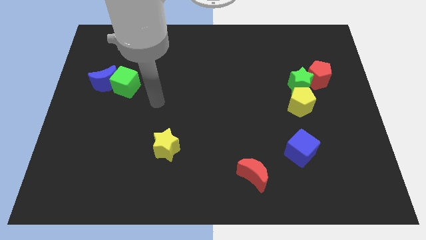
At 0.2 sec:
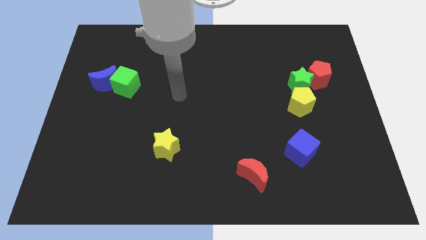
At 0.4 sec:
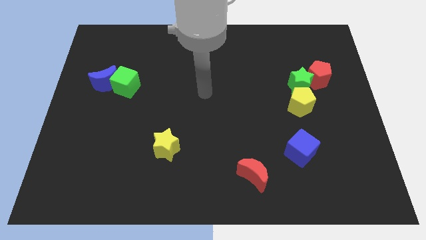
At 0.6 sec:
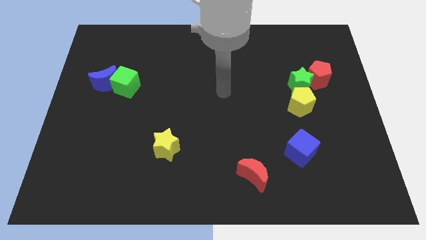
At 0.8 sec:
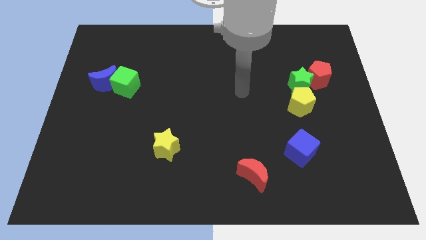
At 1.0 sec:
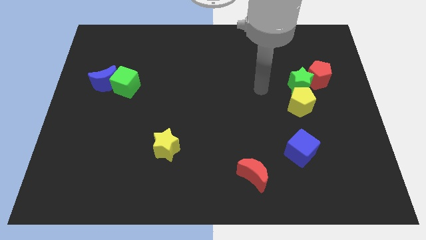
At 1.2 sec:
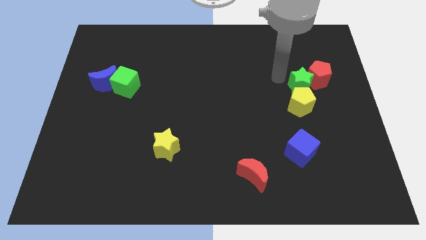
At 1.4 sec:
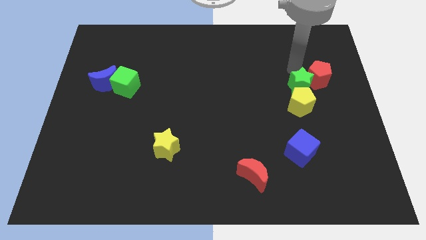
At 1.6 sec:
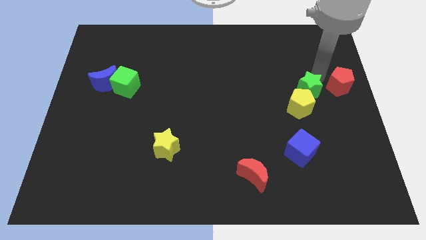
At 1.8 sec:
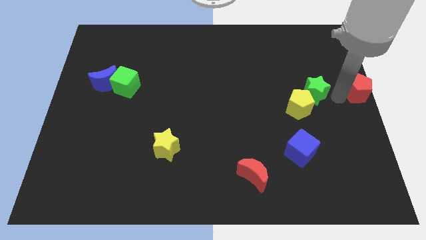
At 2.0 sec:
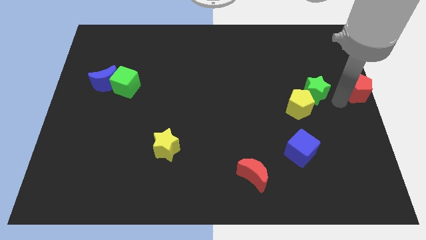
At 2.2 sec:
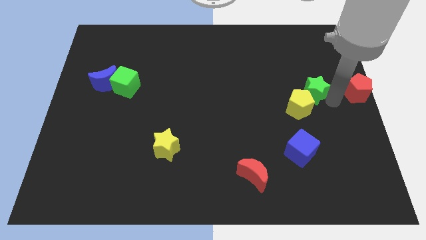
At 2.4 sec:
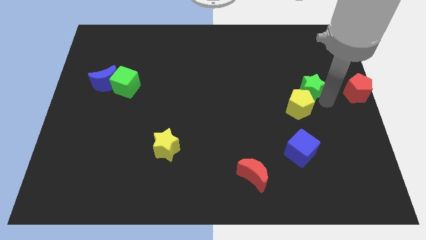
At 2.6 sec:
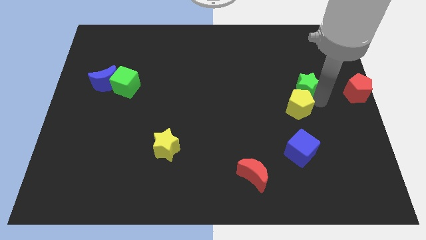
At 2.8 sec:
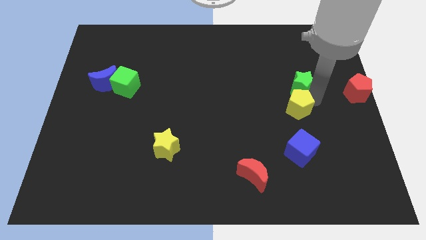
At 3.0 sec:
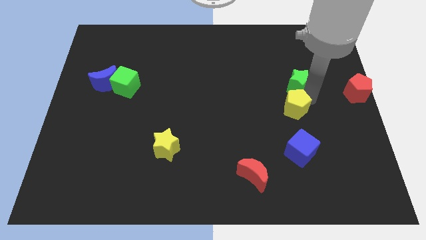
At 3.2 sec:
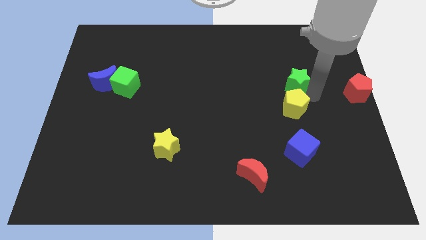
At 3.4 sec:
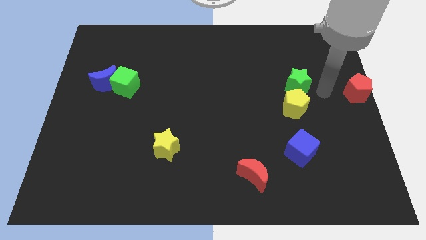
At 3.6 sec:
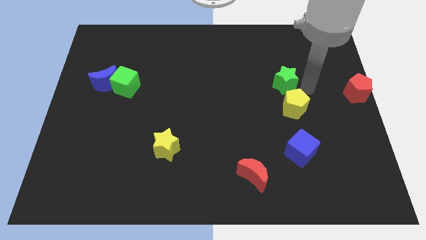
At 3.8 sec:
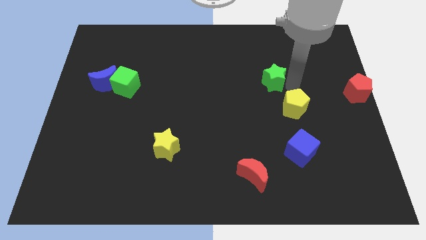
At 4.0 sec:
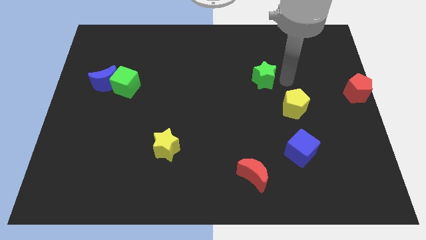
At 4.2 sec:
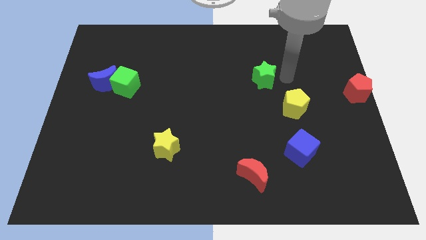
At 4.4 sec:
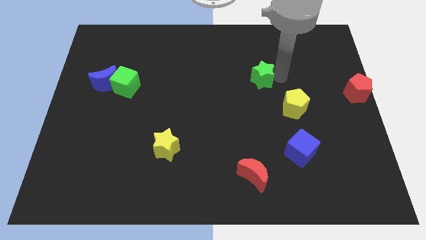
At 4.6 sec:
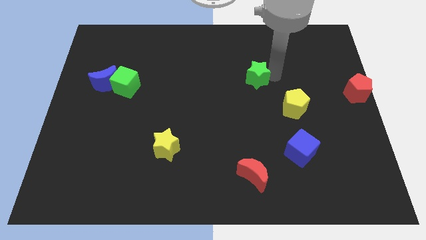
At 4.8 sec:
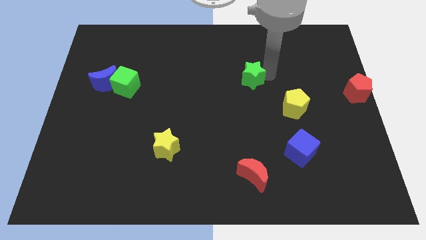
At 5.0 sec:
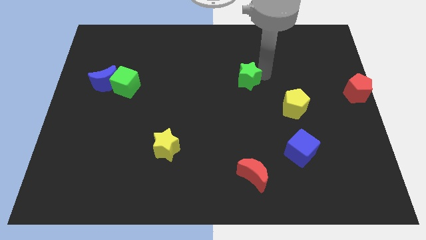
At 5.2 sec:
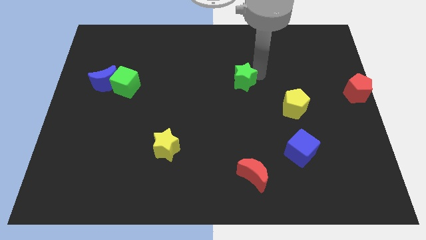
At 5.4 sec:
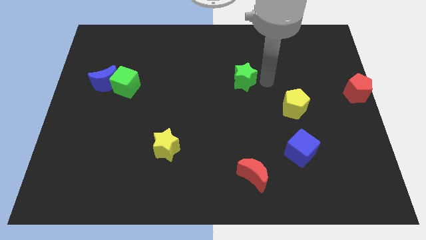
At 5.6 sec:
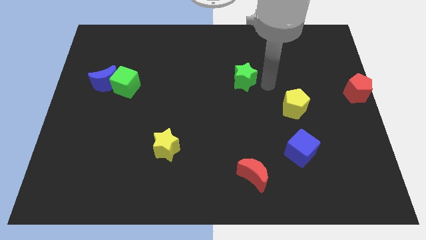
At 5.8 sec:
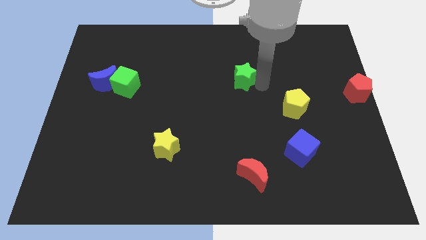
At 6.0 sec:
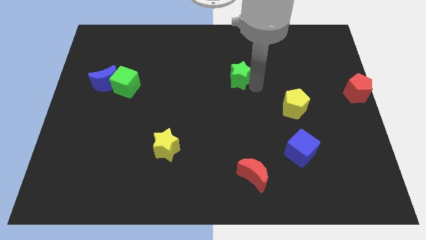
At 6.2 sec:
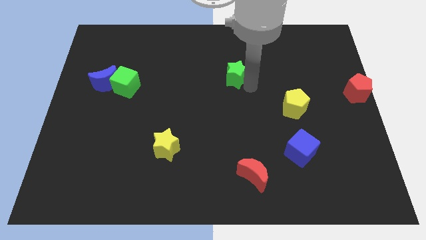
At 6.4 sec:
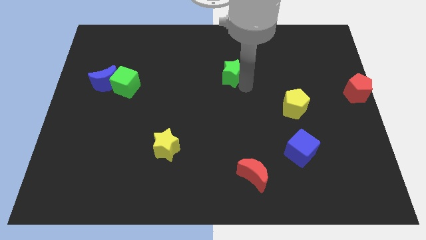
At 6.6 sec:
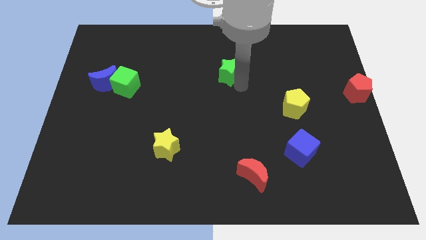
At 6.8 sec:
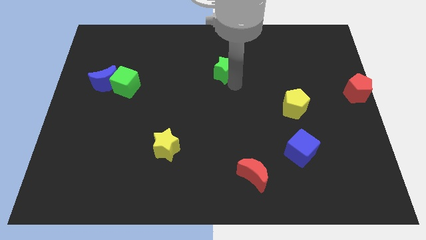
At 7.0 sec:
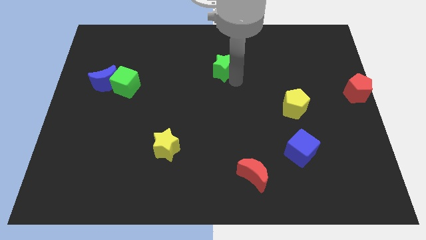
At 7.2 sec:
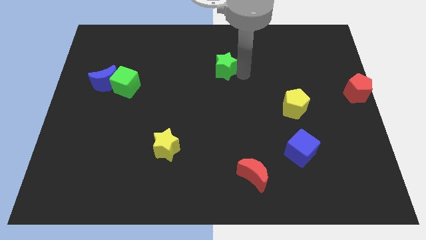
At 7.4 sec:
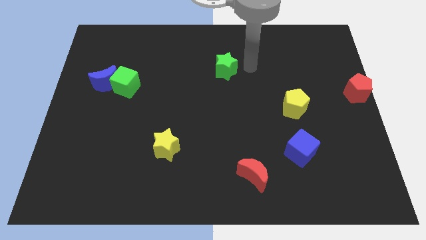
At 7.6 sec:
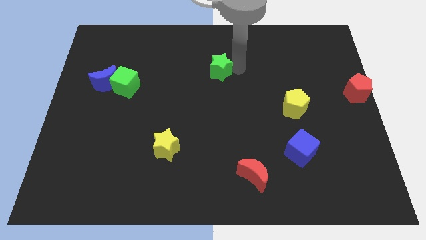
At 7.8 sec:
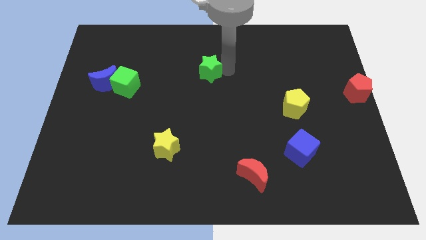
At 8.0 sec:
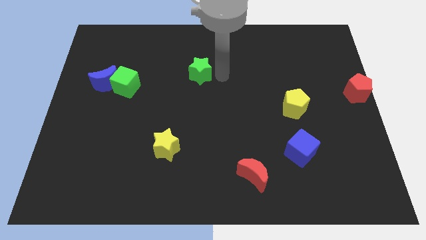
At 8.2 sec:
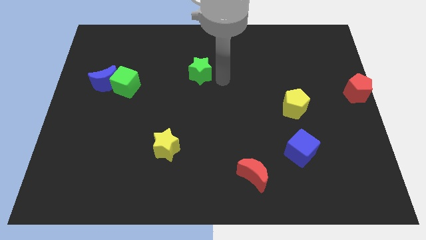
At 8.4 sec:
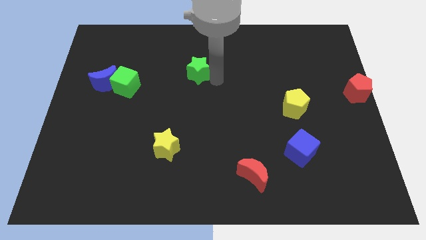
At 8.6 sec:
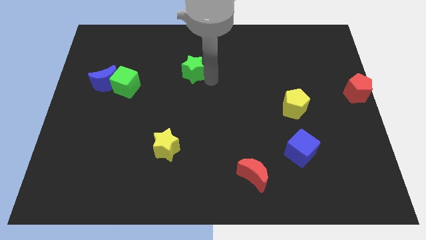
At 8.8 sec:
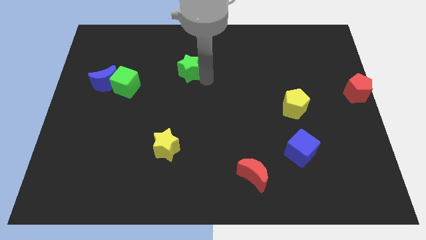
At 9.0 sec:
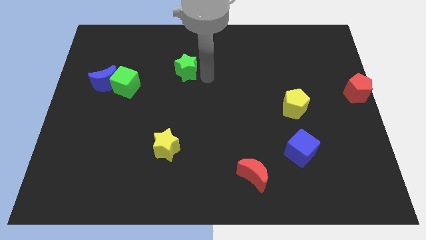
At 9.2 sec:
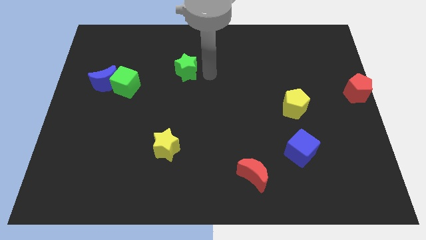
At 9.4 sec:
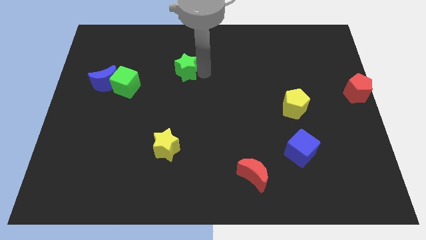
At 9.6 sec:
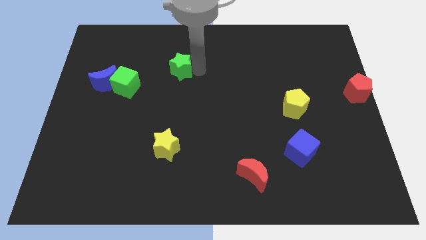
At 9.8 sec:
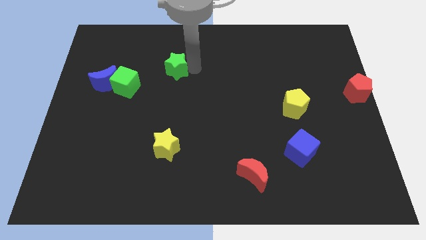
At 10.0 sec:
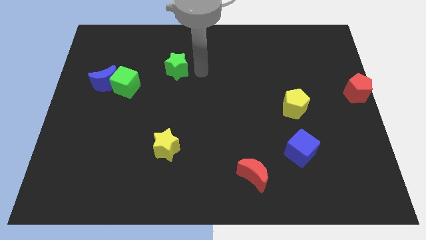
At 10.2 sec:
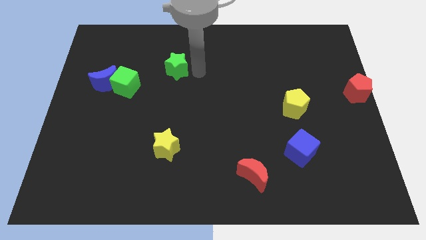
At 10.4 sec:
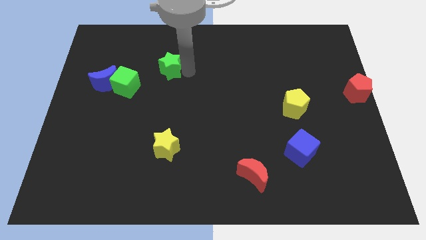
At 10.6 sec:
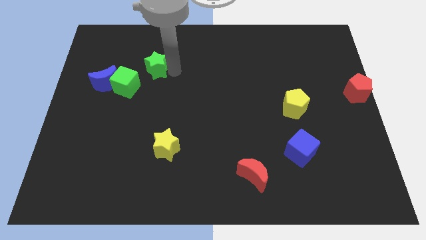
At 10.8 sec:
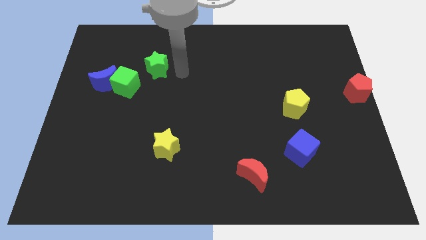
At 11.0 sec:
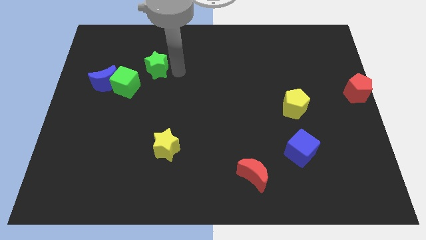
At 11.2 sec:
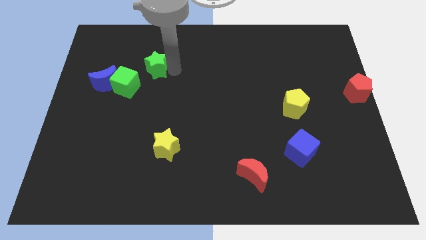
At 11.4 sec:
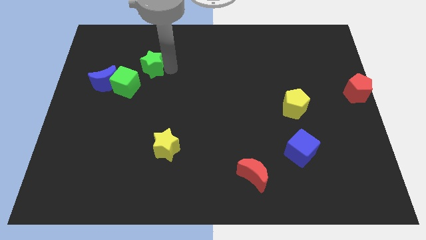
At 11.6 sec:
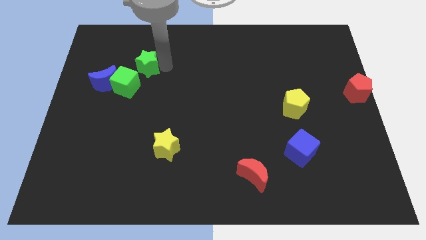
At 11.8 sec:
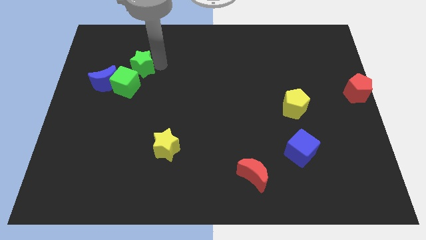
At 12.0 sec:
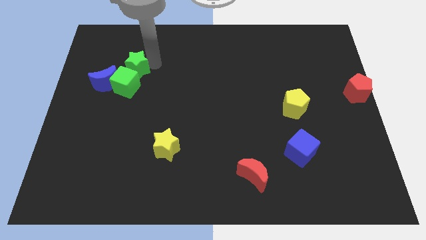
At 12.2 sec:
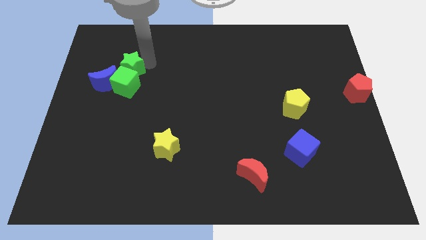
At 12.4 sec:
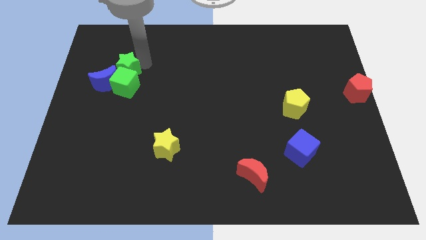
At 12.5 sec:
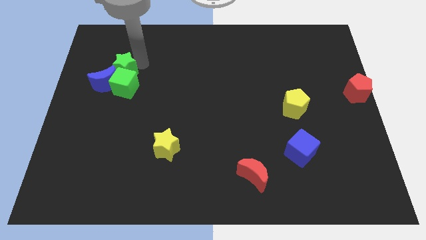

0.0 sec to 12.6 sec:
slide the green star next to the blue moon
